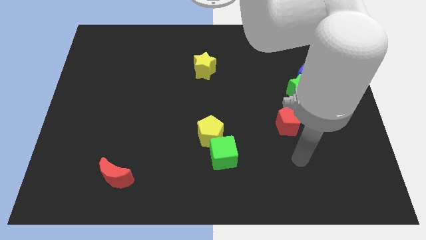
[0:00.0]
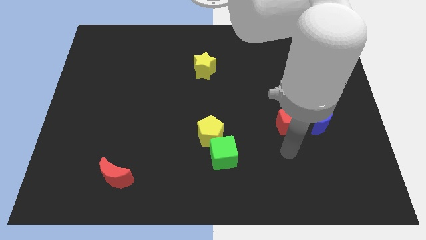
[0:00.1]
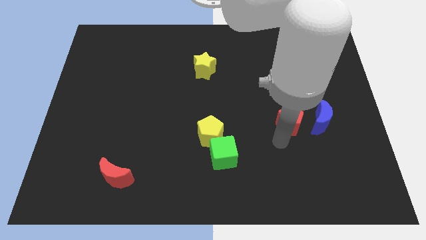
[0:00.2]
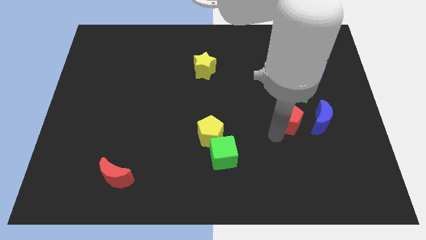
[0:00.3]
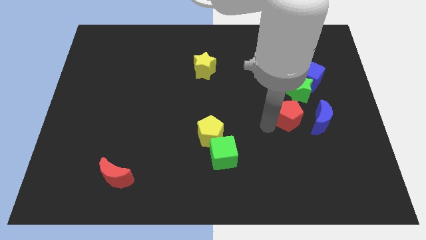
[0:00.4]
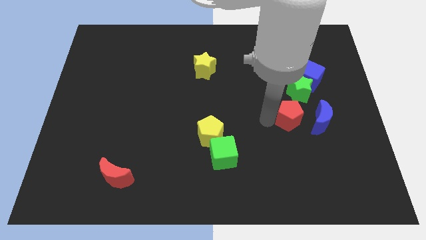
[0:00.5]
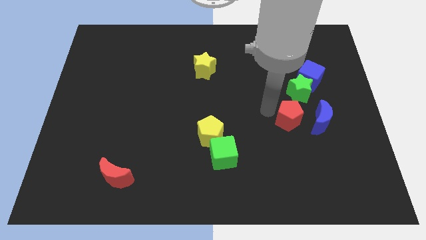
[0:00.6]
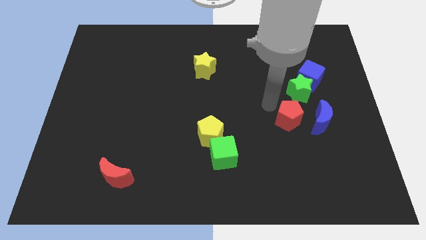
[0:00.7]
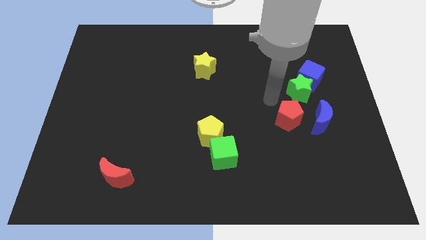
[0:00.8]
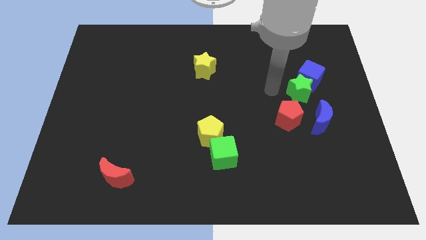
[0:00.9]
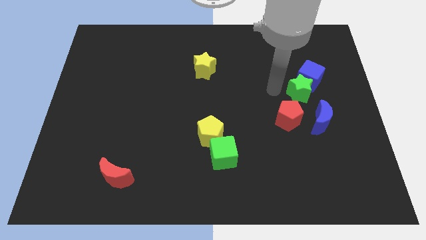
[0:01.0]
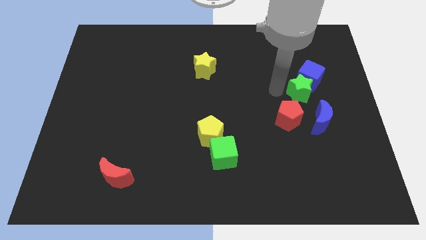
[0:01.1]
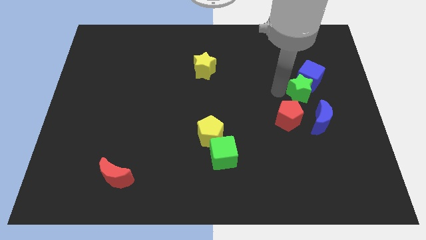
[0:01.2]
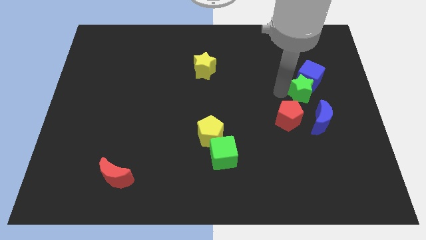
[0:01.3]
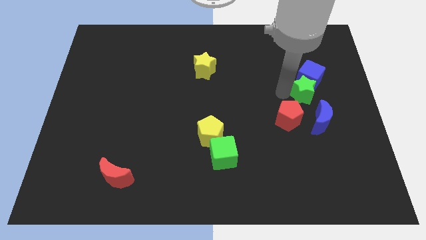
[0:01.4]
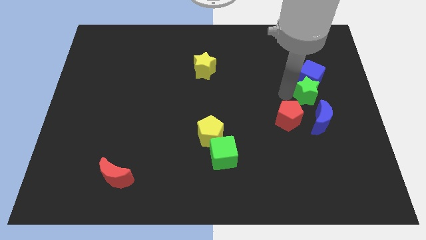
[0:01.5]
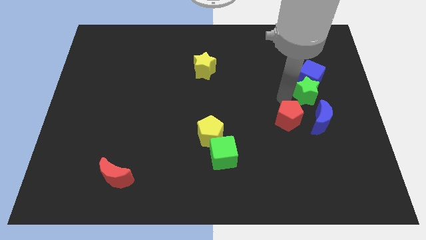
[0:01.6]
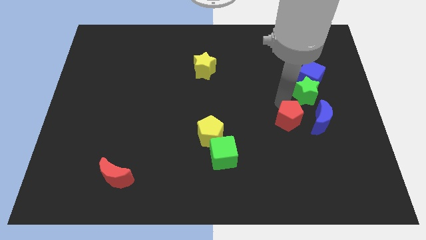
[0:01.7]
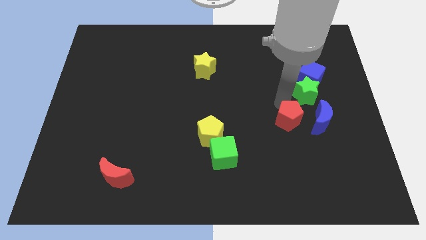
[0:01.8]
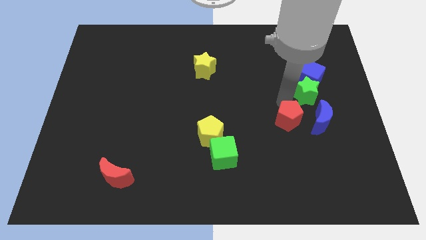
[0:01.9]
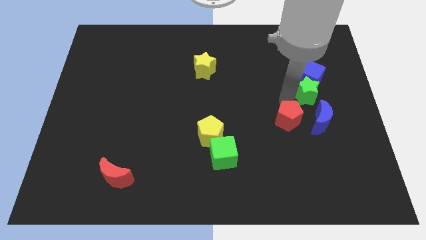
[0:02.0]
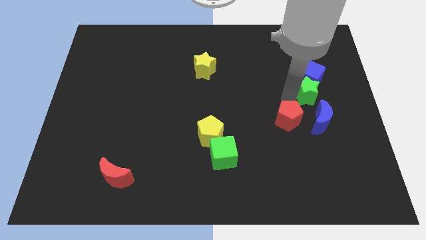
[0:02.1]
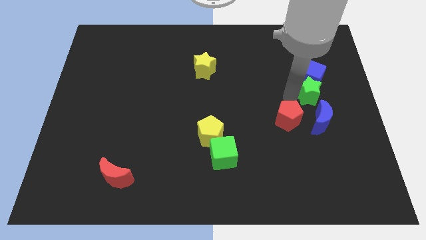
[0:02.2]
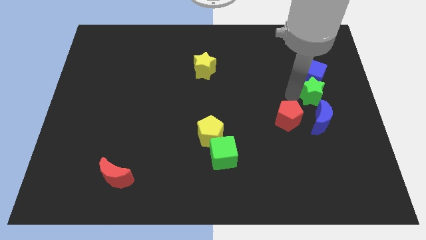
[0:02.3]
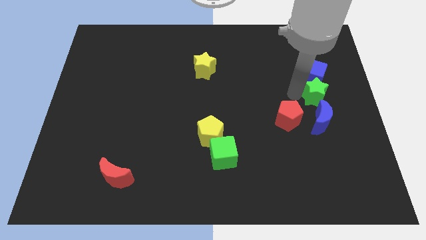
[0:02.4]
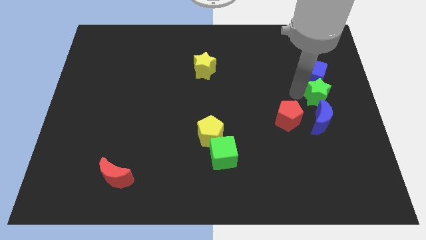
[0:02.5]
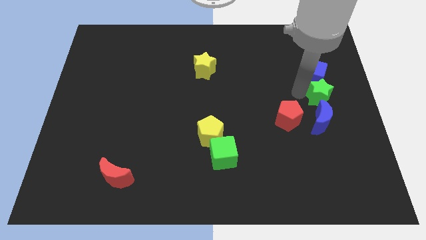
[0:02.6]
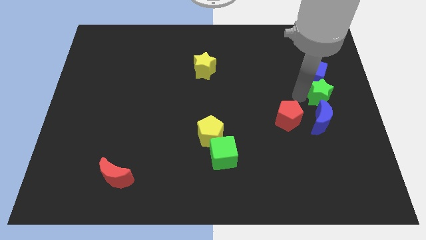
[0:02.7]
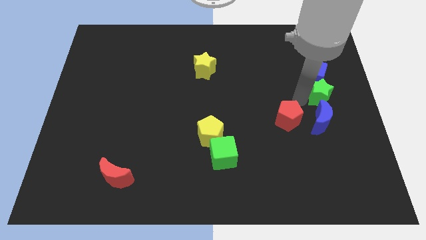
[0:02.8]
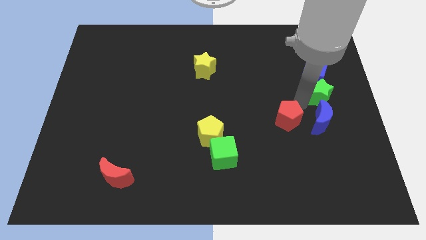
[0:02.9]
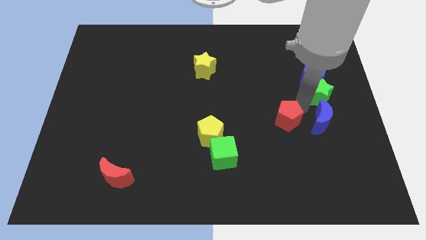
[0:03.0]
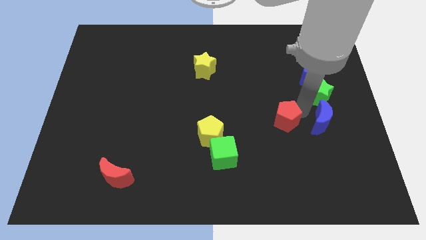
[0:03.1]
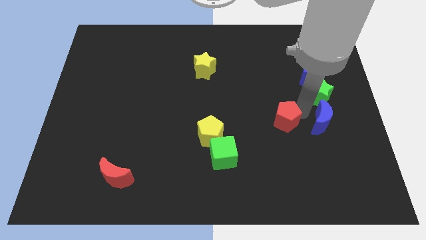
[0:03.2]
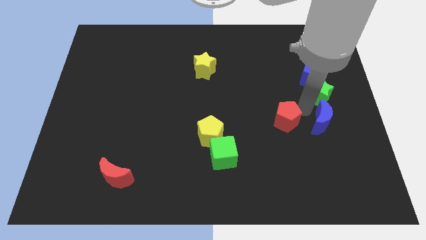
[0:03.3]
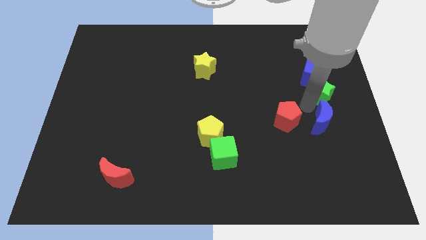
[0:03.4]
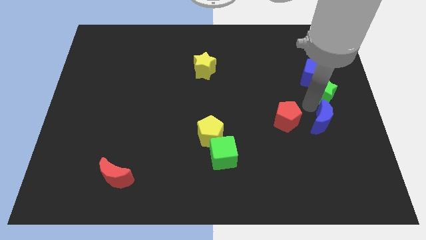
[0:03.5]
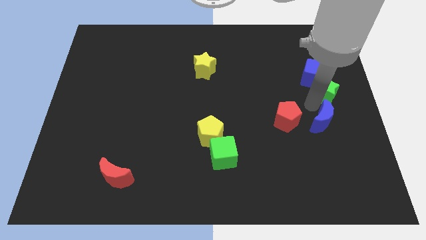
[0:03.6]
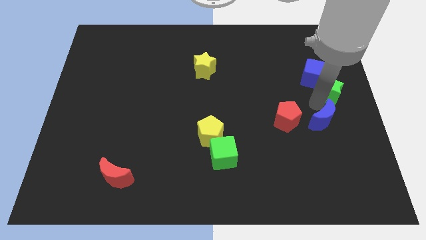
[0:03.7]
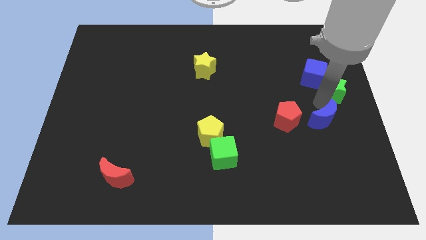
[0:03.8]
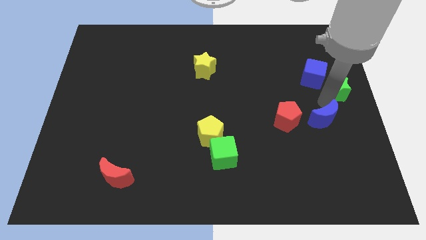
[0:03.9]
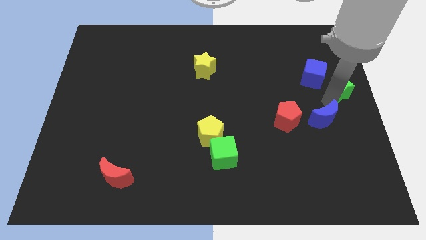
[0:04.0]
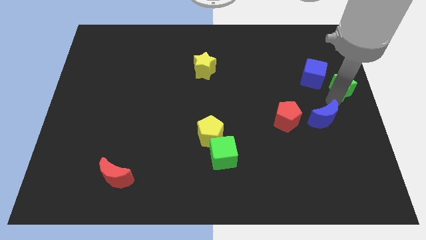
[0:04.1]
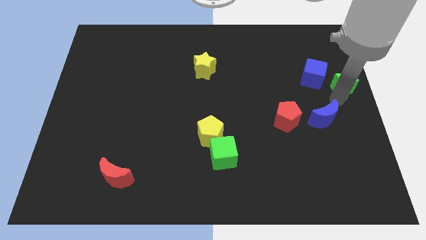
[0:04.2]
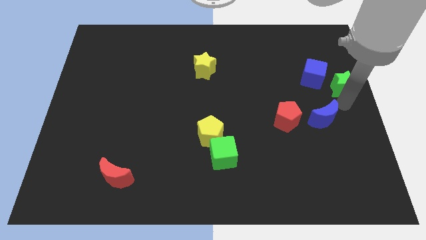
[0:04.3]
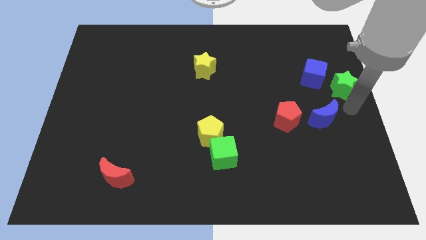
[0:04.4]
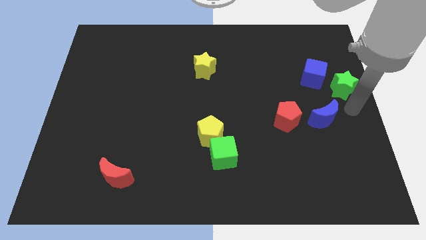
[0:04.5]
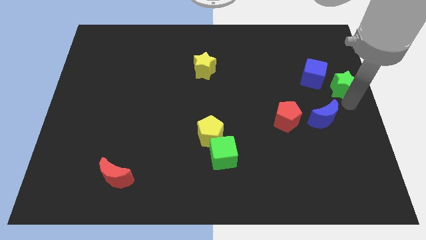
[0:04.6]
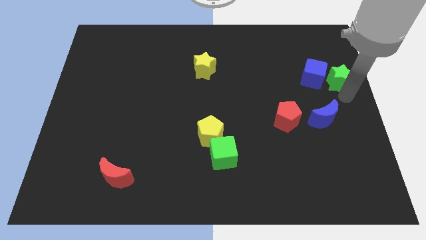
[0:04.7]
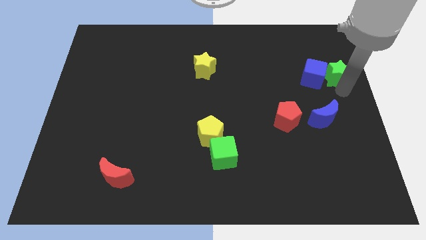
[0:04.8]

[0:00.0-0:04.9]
put the green star to the top right side of the blue cube

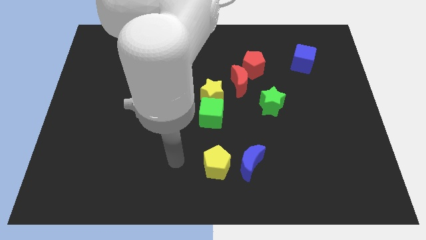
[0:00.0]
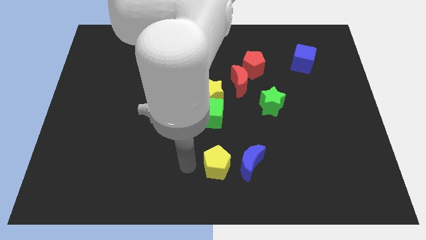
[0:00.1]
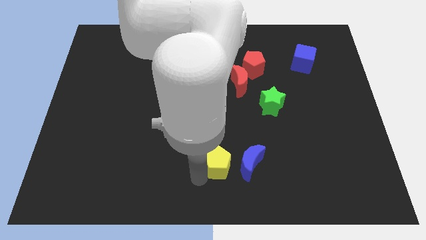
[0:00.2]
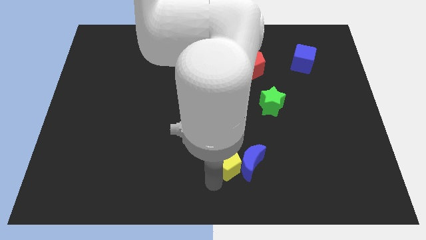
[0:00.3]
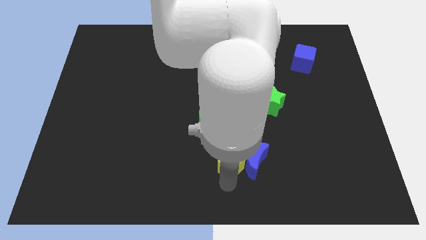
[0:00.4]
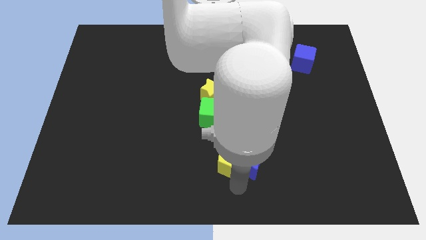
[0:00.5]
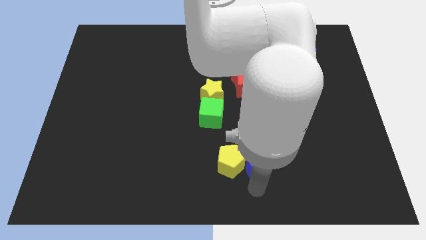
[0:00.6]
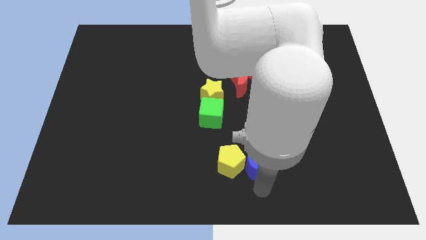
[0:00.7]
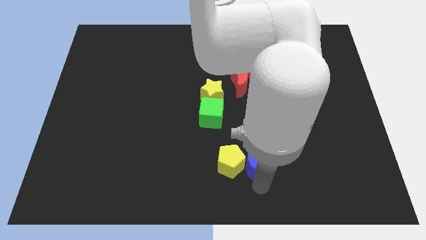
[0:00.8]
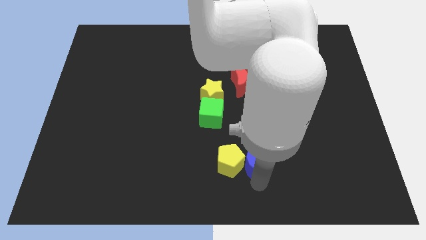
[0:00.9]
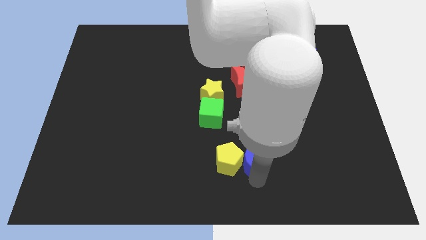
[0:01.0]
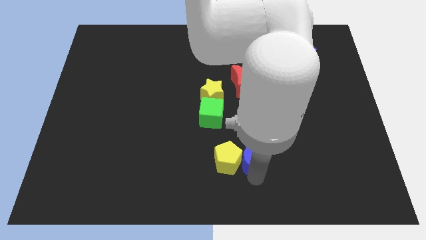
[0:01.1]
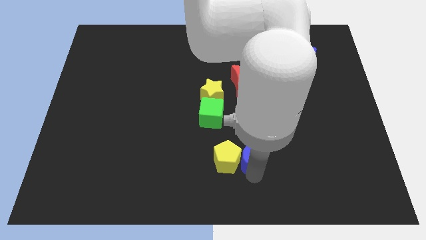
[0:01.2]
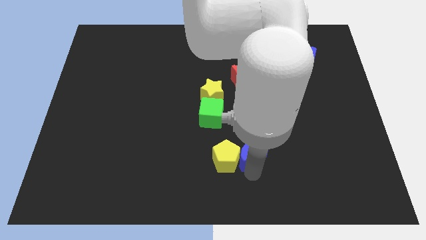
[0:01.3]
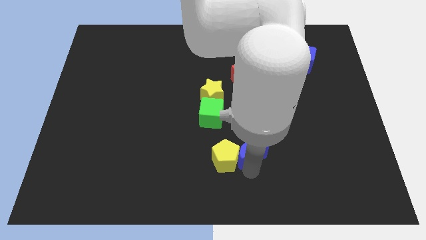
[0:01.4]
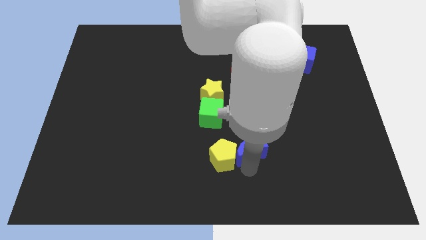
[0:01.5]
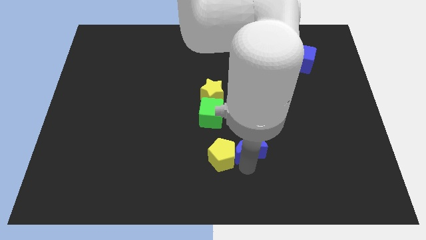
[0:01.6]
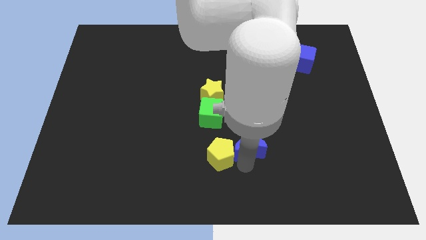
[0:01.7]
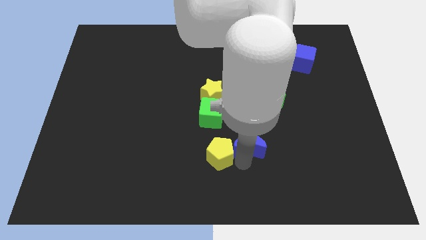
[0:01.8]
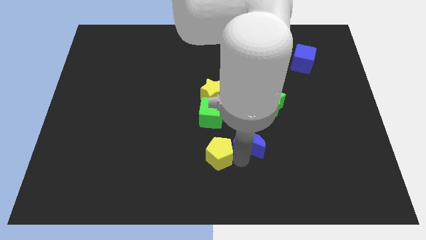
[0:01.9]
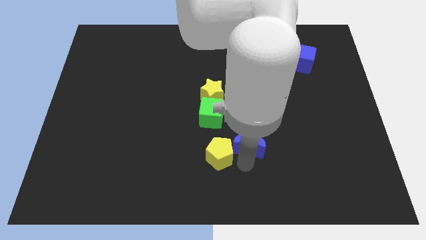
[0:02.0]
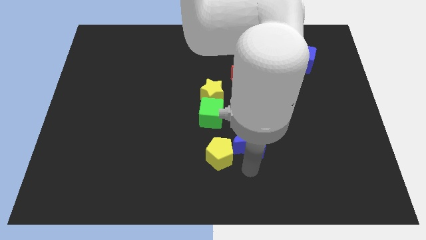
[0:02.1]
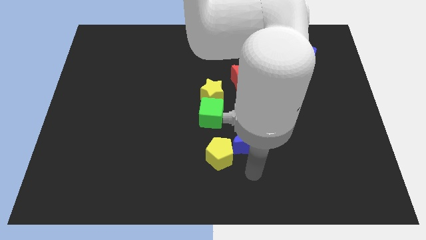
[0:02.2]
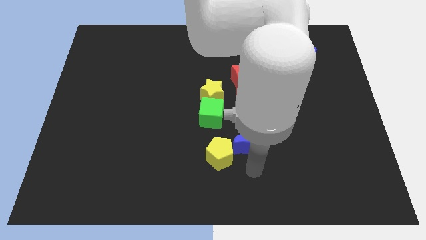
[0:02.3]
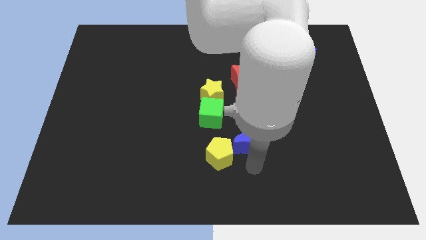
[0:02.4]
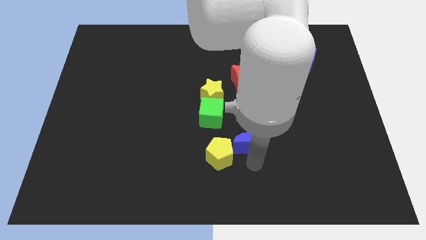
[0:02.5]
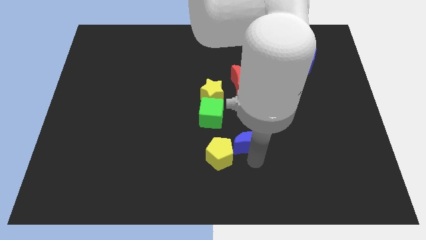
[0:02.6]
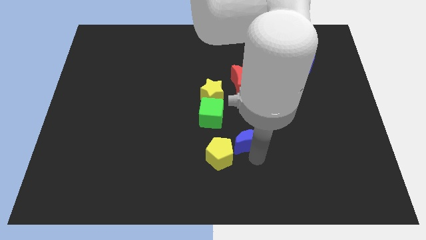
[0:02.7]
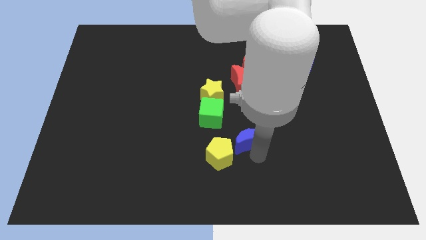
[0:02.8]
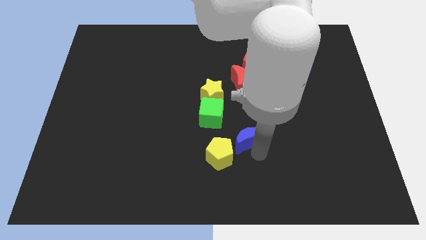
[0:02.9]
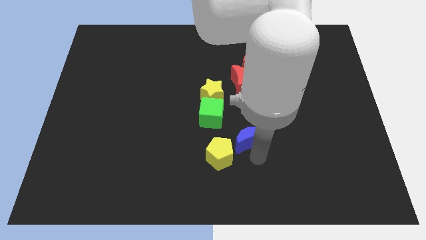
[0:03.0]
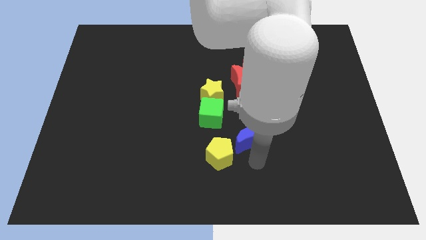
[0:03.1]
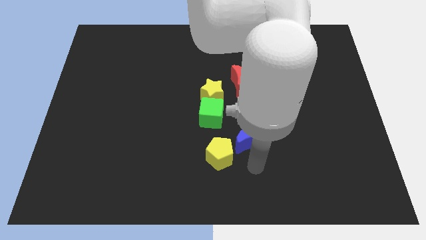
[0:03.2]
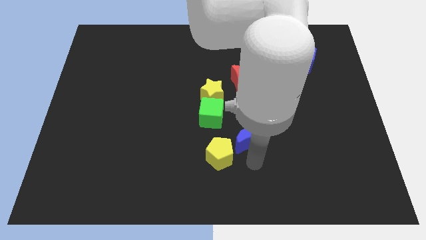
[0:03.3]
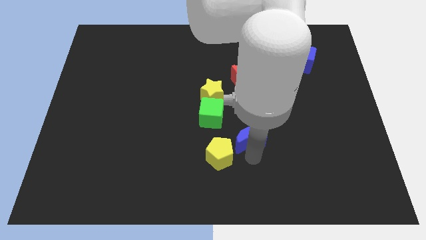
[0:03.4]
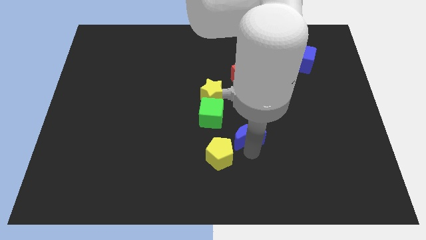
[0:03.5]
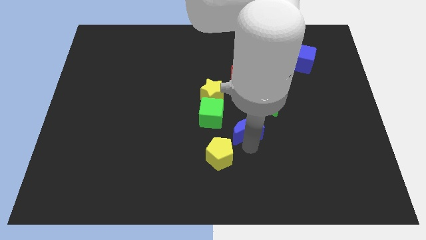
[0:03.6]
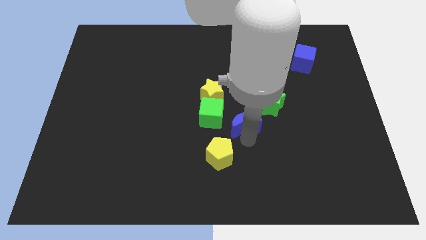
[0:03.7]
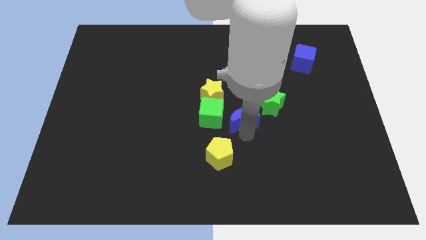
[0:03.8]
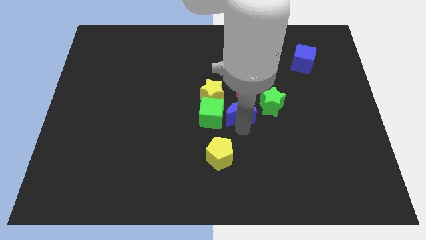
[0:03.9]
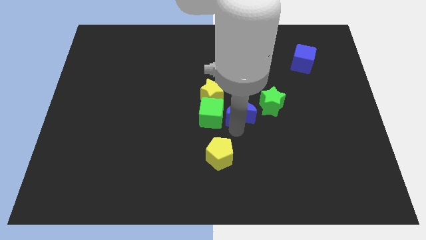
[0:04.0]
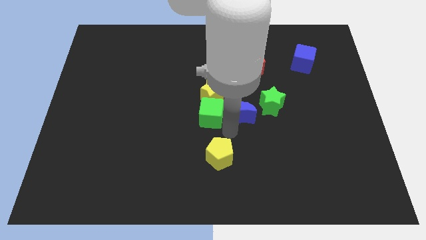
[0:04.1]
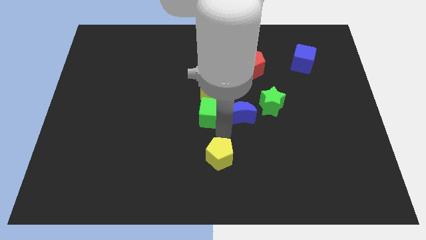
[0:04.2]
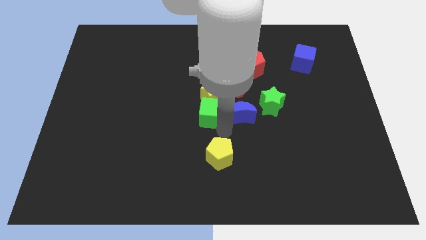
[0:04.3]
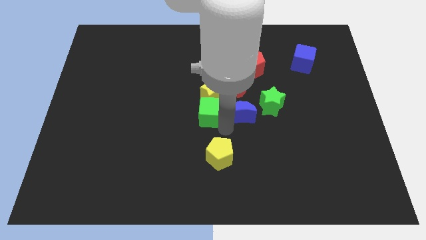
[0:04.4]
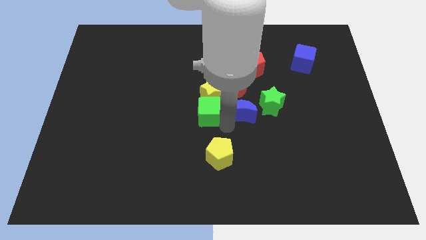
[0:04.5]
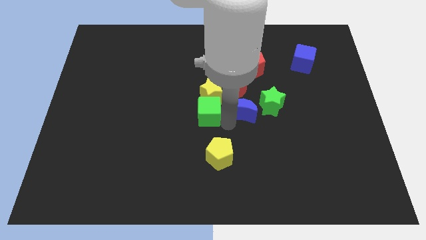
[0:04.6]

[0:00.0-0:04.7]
push the blue moon below the red pentagon
